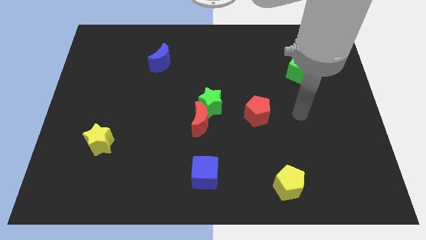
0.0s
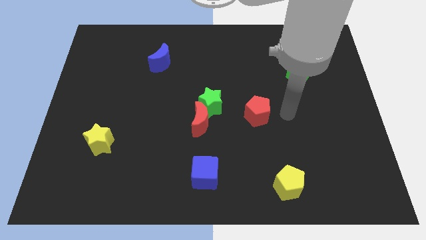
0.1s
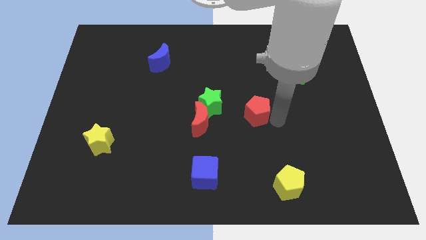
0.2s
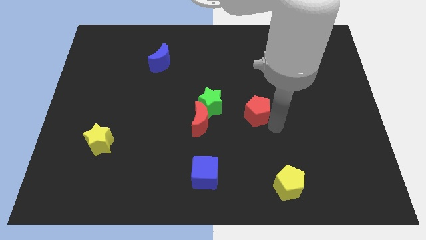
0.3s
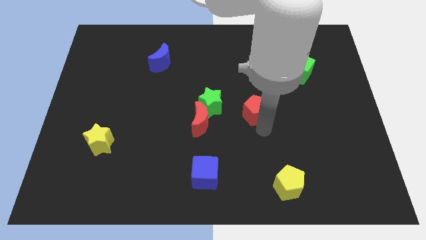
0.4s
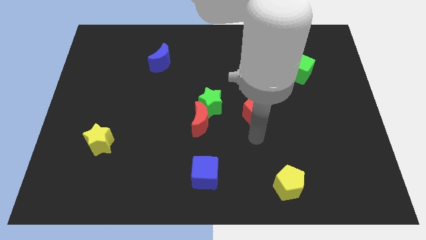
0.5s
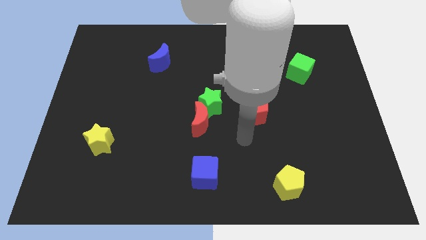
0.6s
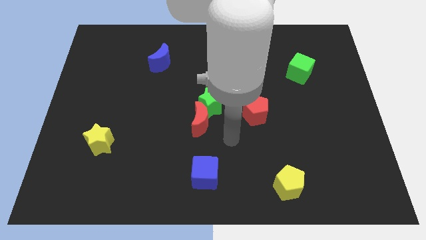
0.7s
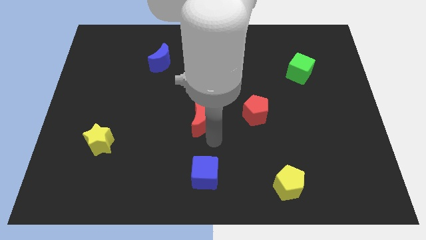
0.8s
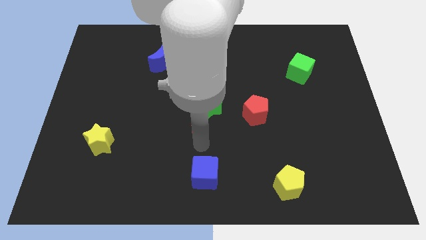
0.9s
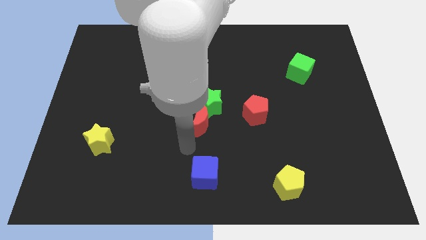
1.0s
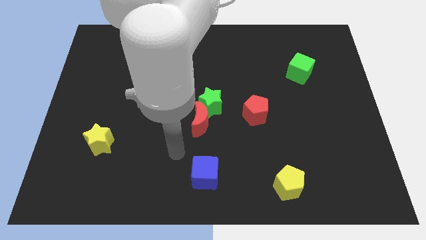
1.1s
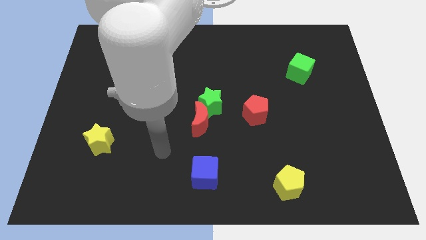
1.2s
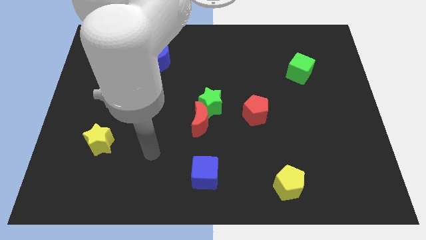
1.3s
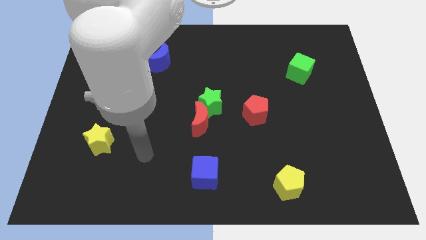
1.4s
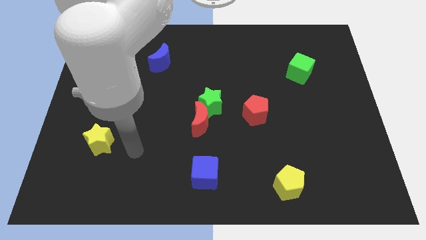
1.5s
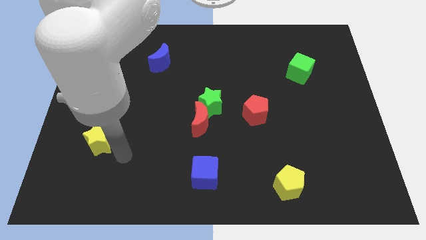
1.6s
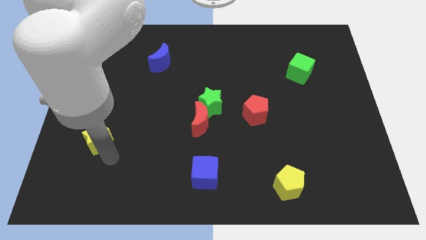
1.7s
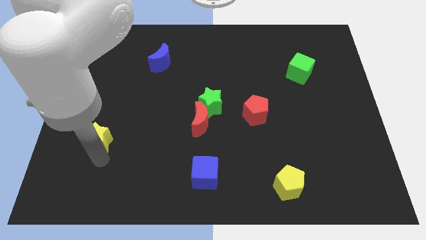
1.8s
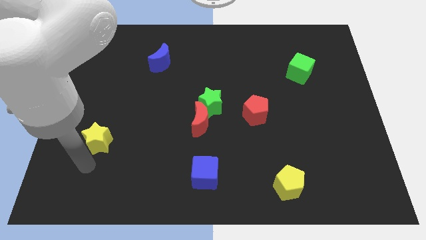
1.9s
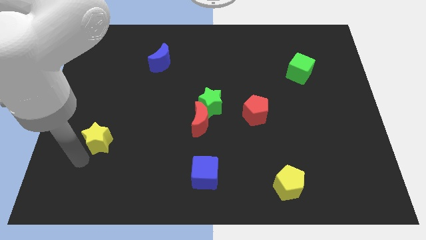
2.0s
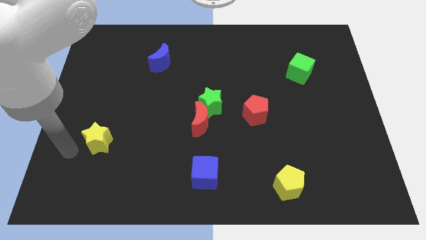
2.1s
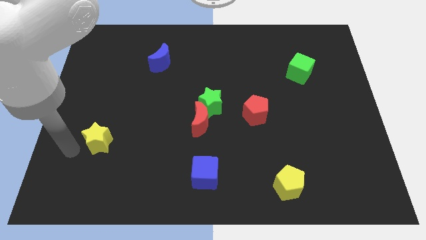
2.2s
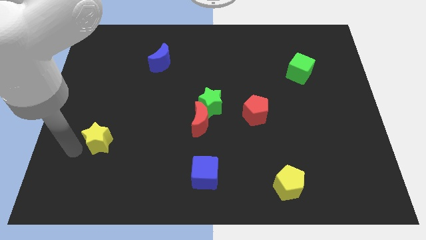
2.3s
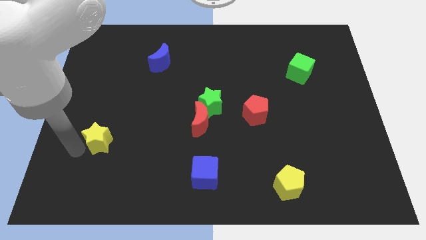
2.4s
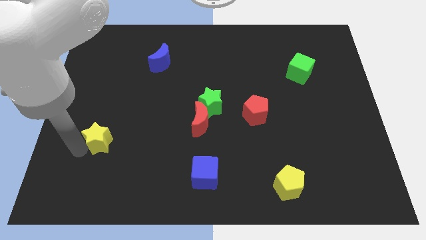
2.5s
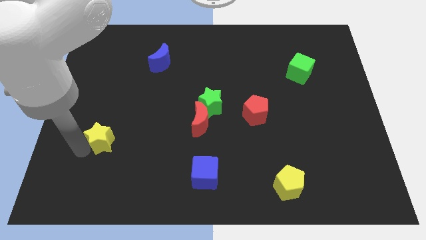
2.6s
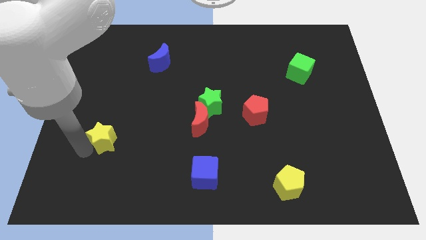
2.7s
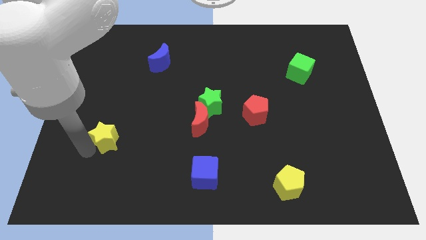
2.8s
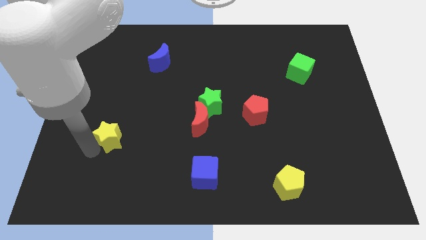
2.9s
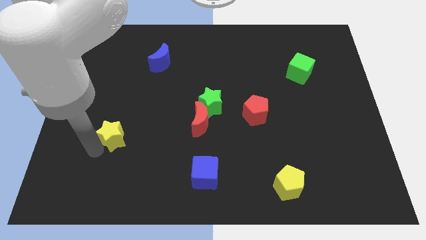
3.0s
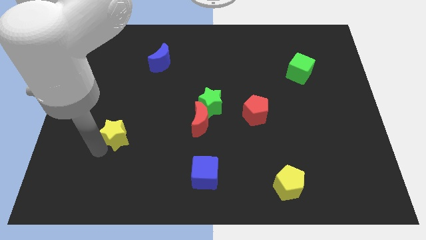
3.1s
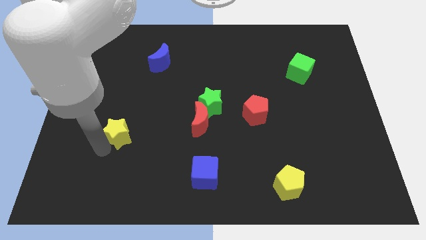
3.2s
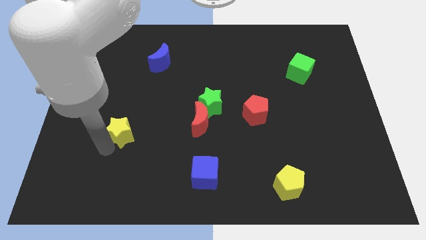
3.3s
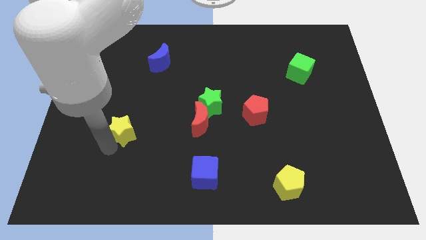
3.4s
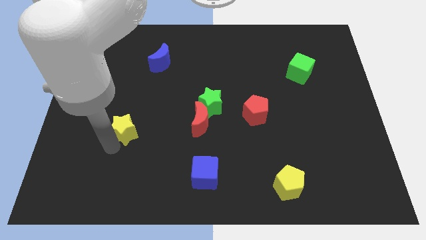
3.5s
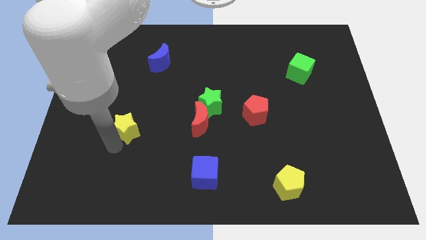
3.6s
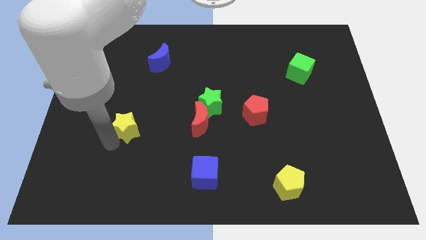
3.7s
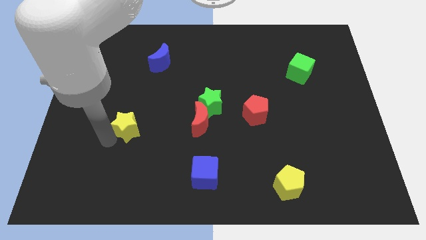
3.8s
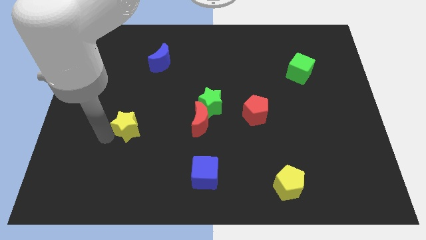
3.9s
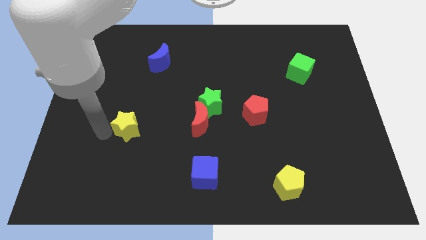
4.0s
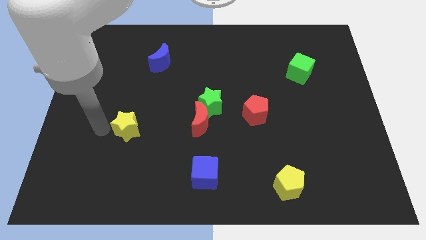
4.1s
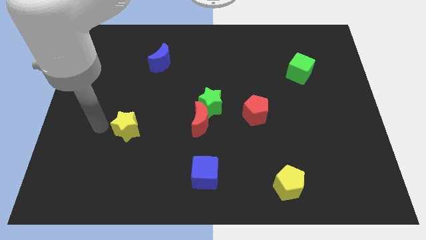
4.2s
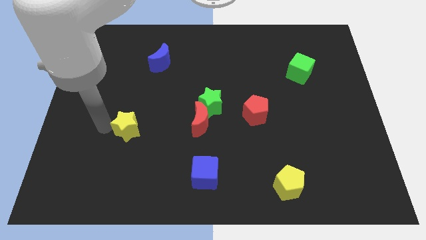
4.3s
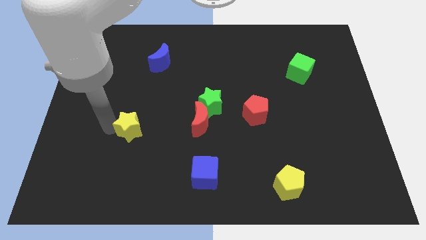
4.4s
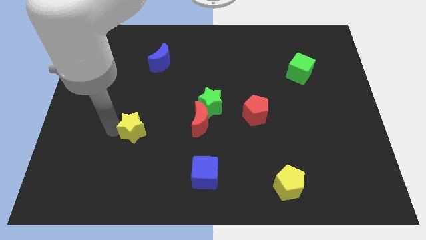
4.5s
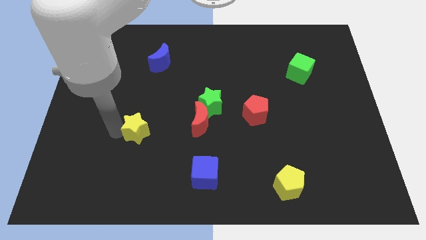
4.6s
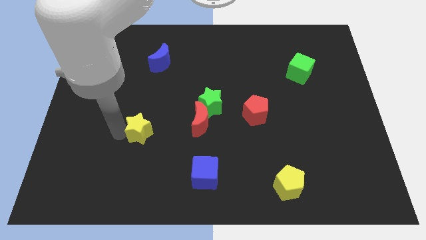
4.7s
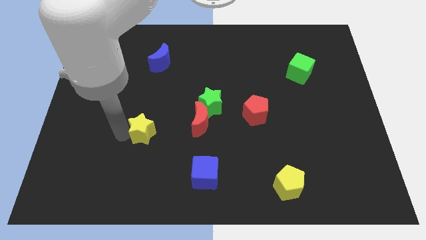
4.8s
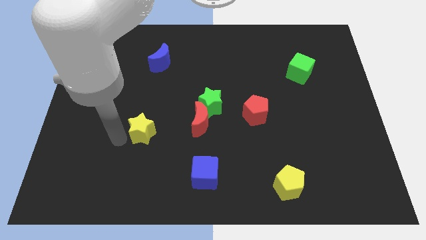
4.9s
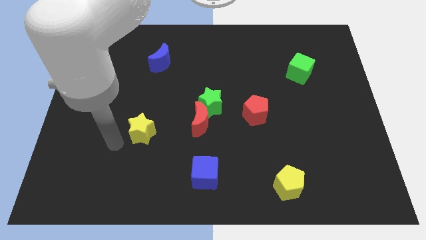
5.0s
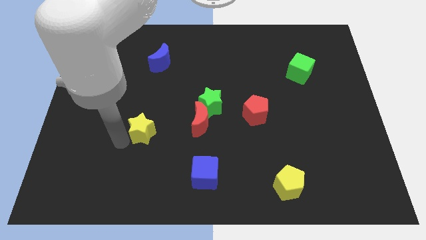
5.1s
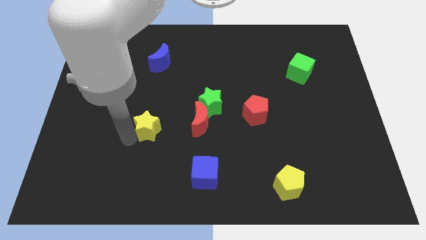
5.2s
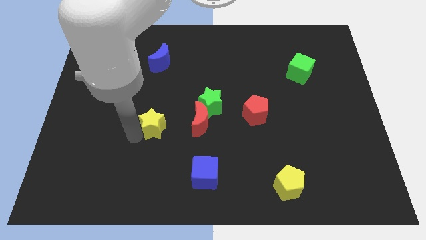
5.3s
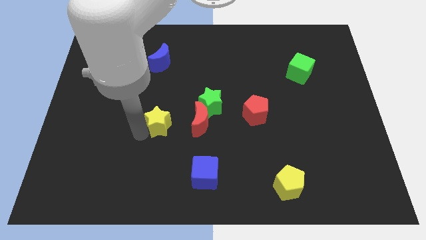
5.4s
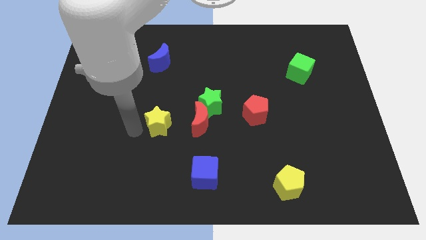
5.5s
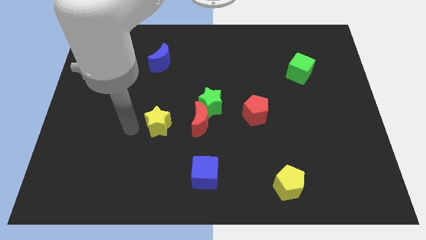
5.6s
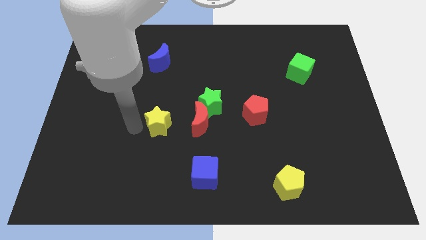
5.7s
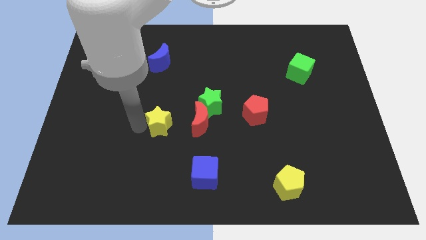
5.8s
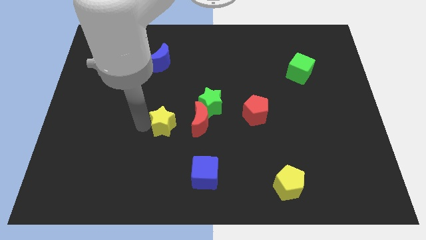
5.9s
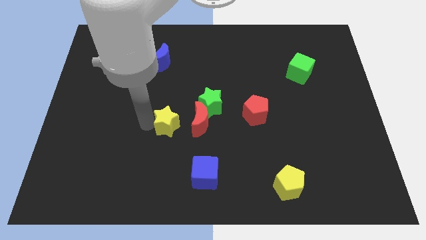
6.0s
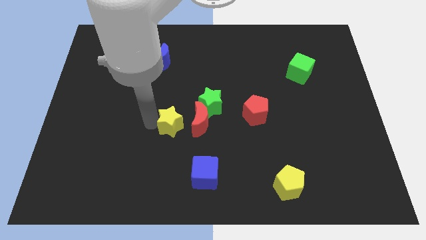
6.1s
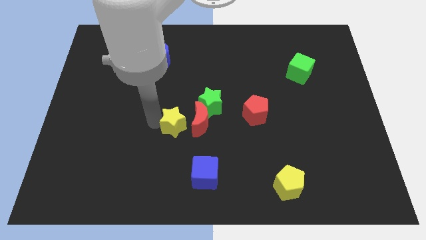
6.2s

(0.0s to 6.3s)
push the yellow star to the red moon
